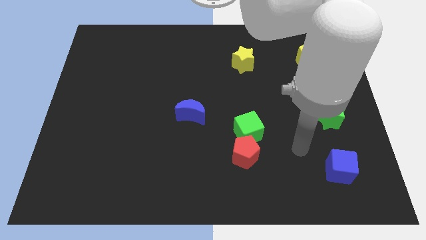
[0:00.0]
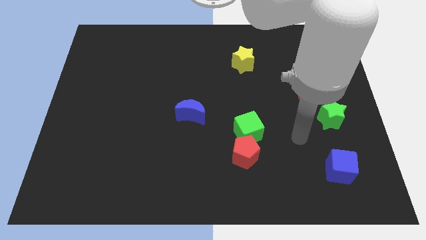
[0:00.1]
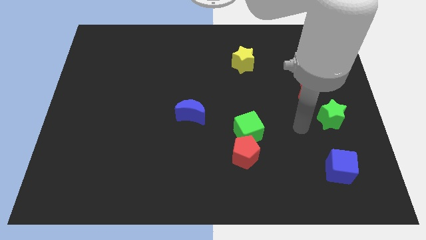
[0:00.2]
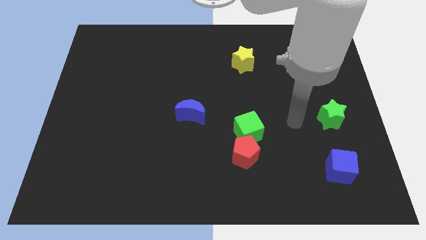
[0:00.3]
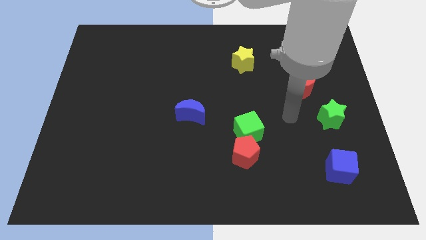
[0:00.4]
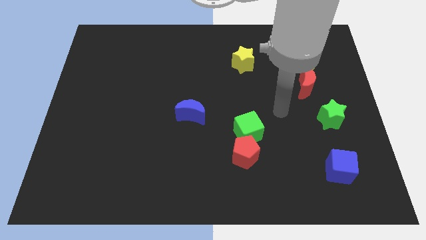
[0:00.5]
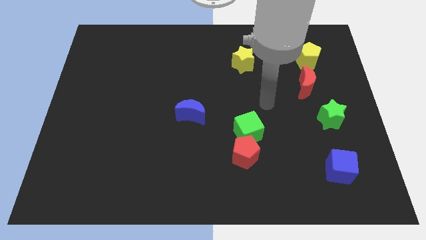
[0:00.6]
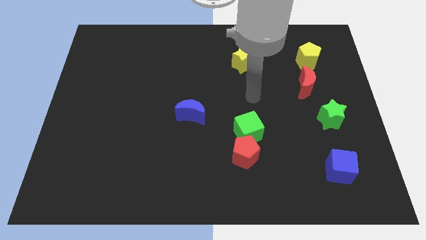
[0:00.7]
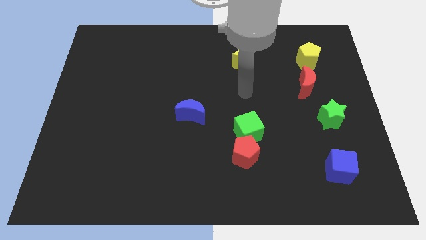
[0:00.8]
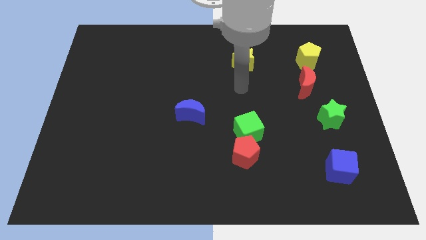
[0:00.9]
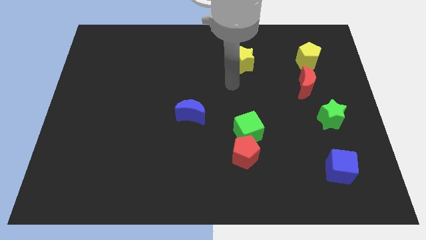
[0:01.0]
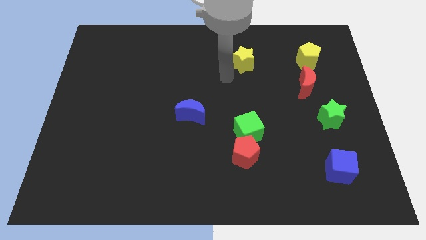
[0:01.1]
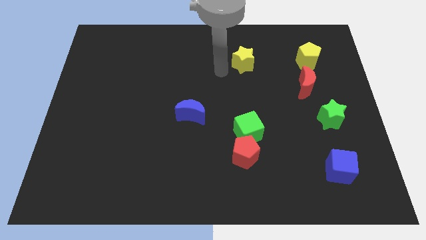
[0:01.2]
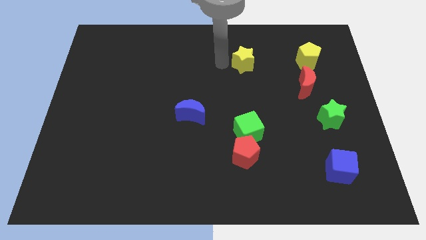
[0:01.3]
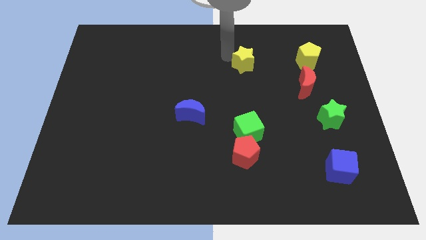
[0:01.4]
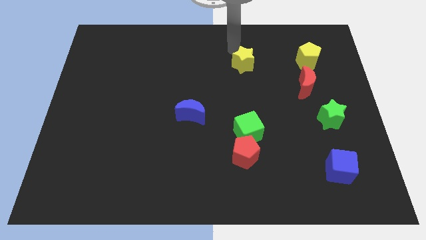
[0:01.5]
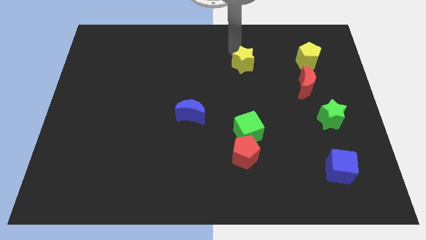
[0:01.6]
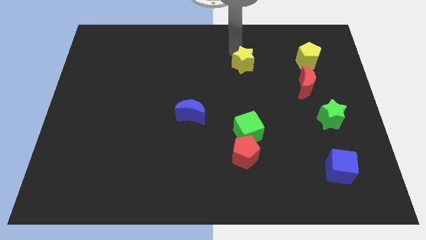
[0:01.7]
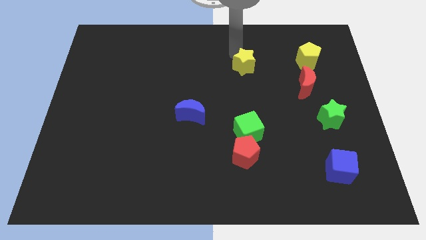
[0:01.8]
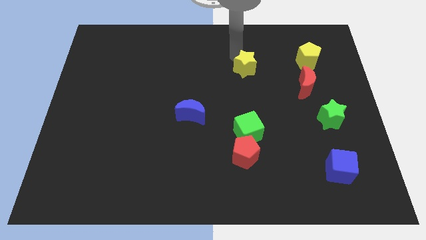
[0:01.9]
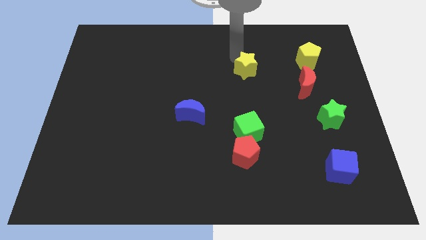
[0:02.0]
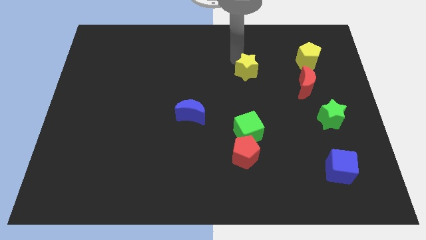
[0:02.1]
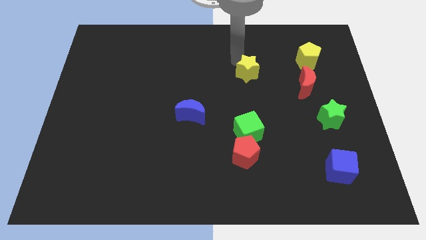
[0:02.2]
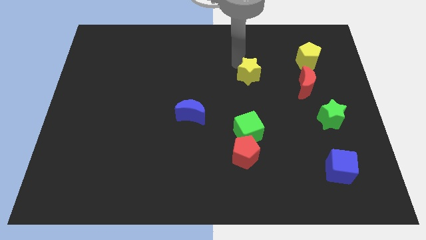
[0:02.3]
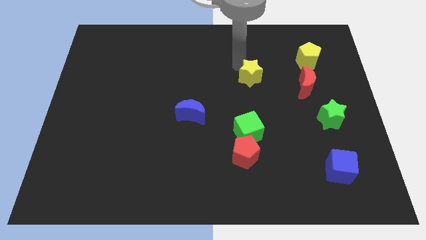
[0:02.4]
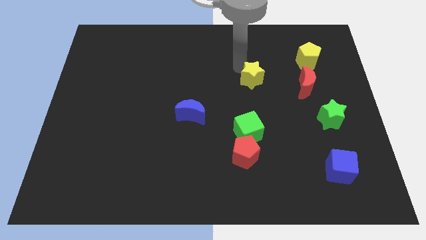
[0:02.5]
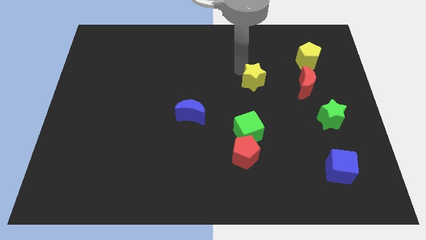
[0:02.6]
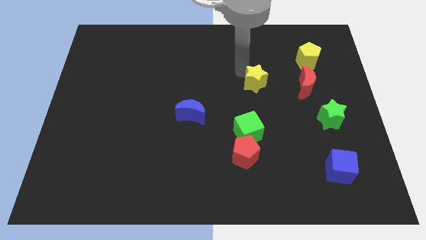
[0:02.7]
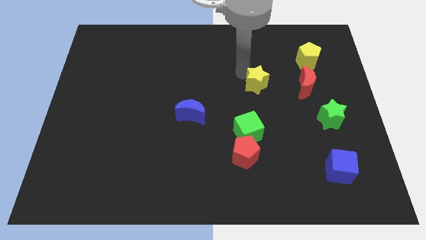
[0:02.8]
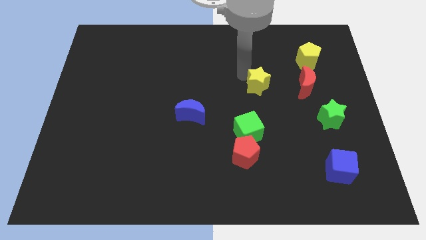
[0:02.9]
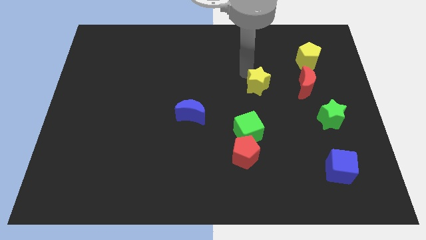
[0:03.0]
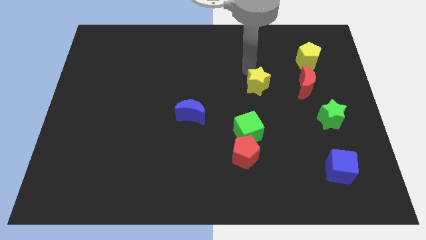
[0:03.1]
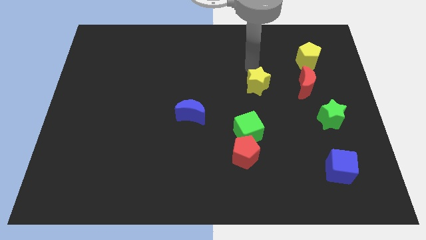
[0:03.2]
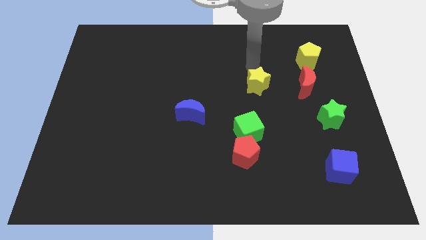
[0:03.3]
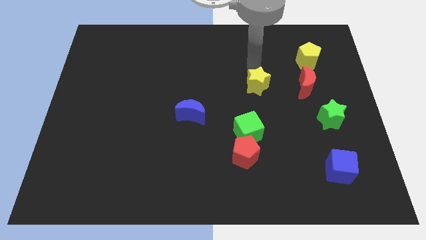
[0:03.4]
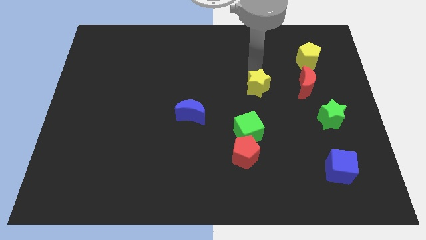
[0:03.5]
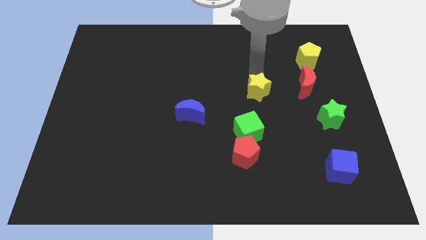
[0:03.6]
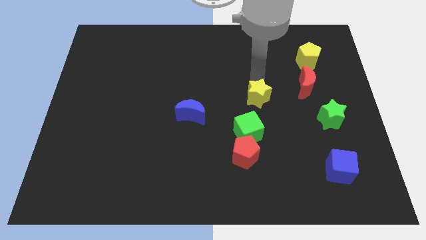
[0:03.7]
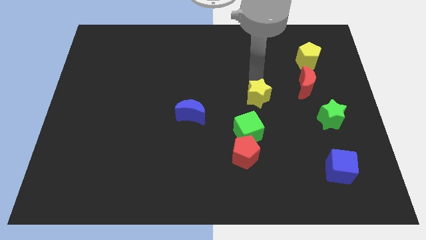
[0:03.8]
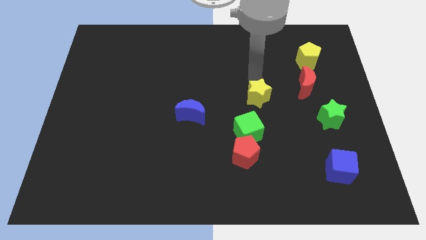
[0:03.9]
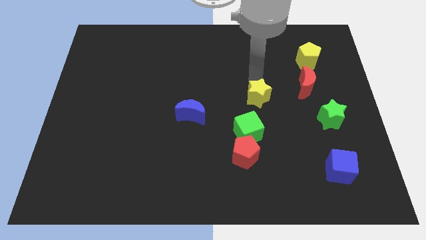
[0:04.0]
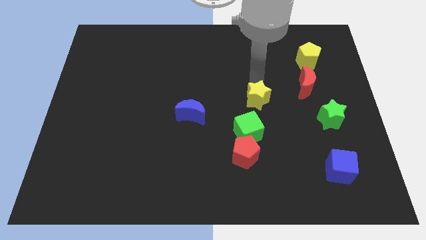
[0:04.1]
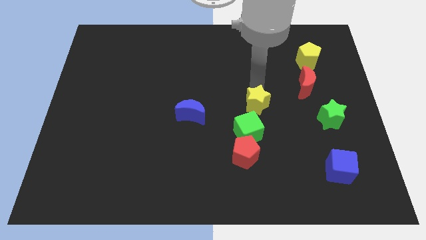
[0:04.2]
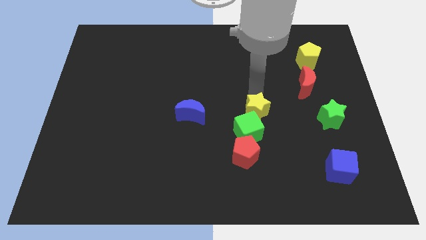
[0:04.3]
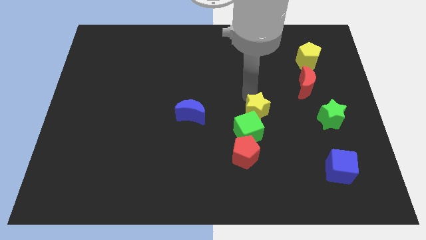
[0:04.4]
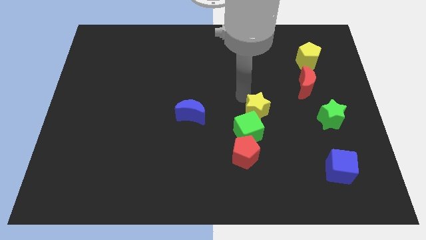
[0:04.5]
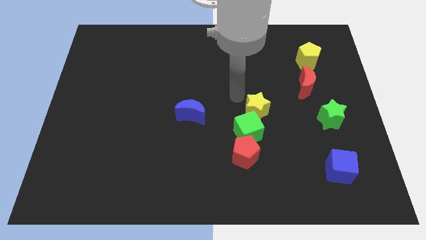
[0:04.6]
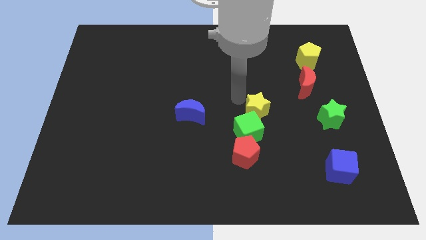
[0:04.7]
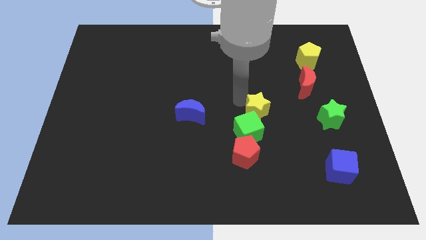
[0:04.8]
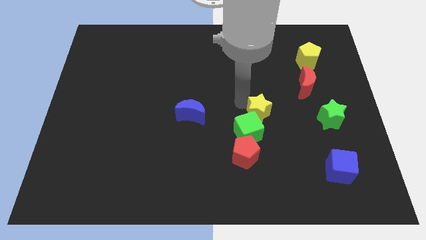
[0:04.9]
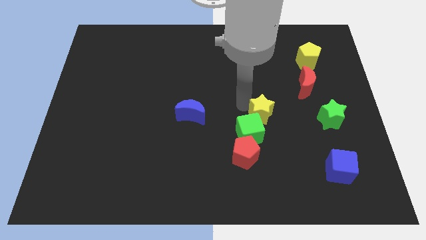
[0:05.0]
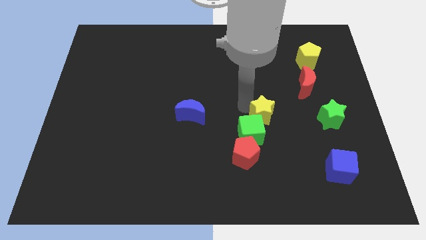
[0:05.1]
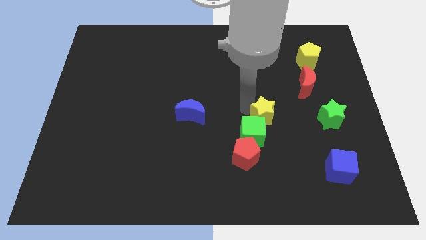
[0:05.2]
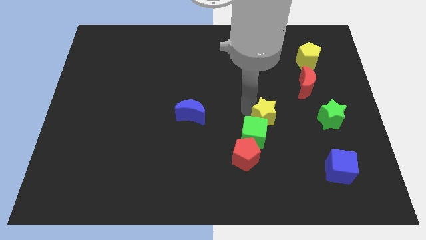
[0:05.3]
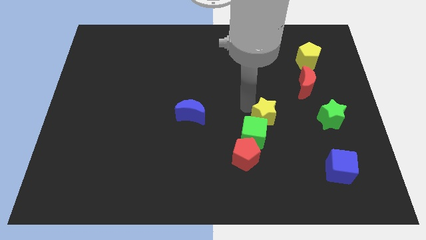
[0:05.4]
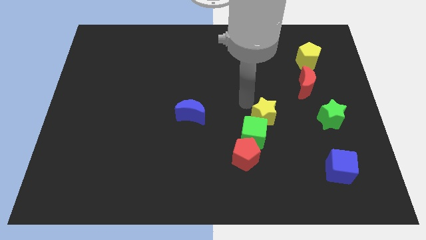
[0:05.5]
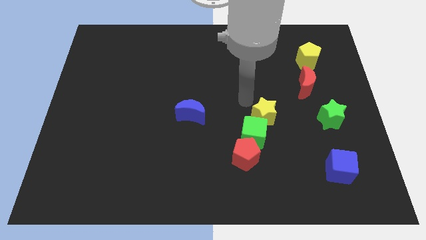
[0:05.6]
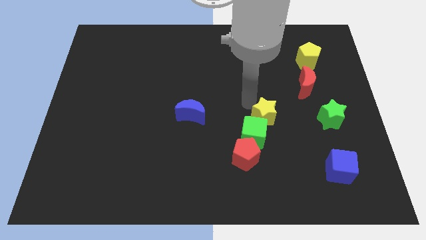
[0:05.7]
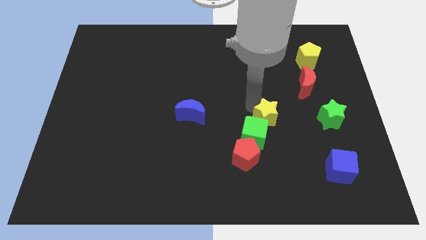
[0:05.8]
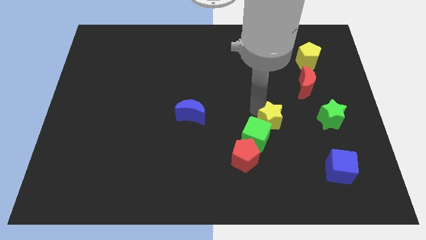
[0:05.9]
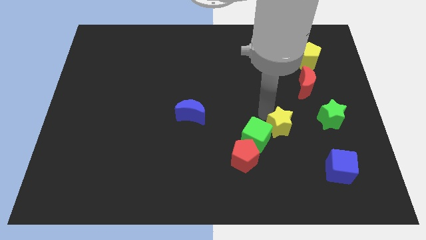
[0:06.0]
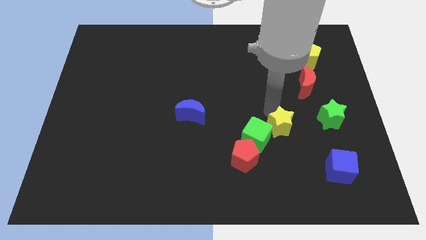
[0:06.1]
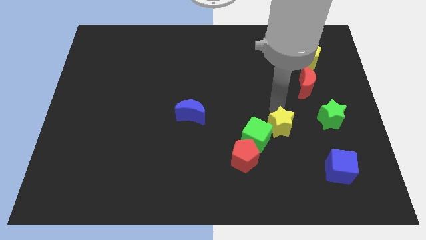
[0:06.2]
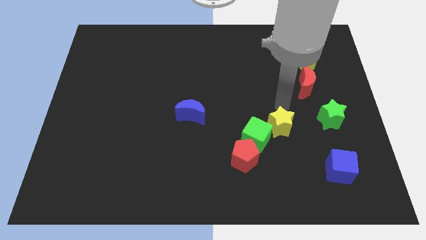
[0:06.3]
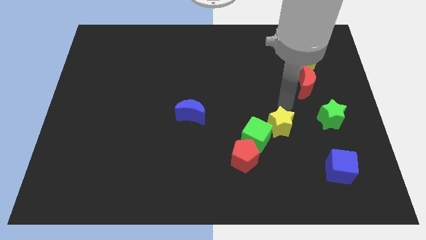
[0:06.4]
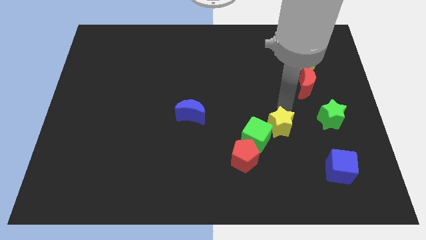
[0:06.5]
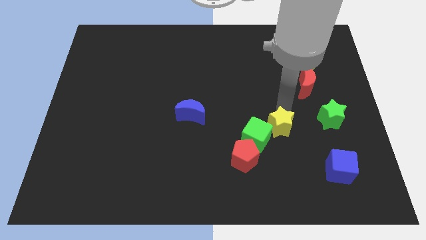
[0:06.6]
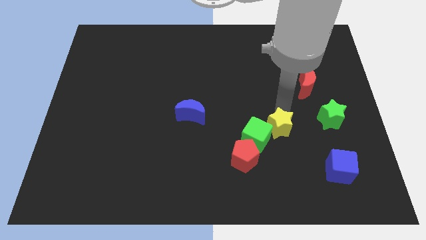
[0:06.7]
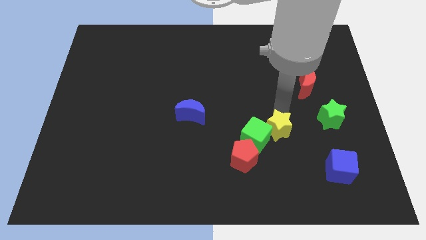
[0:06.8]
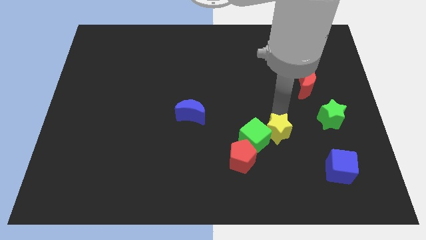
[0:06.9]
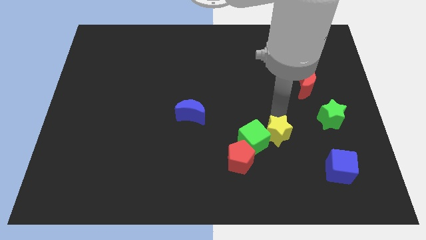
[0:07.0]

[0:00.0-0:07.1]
slide the yellow star downwards

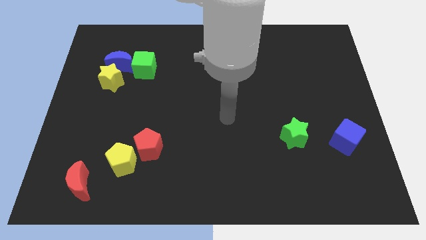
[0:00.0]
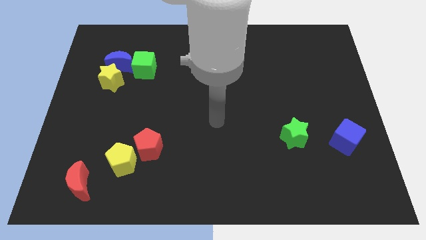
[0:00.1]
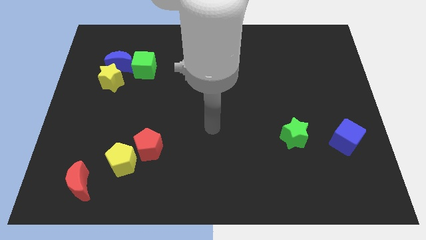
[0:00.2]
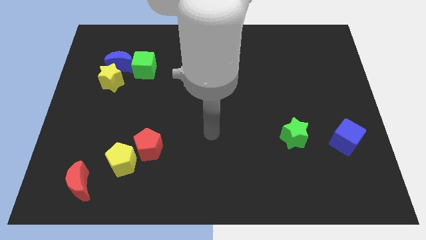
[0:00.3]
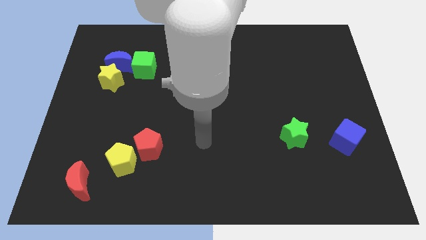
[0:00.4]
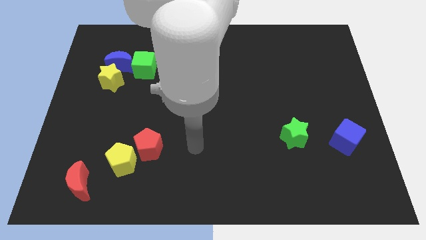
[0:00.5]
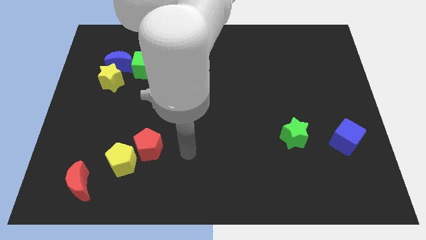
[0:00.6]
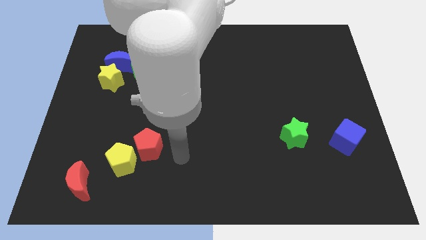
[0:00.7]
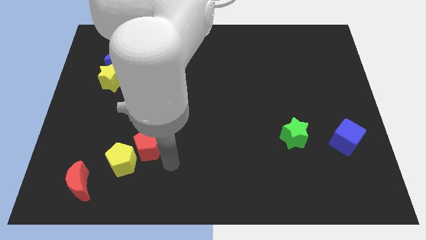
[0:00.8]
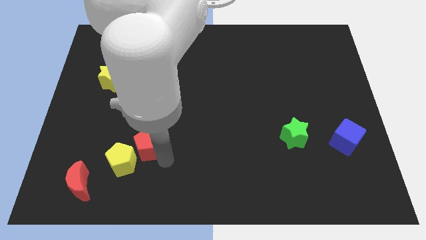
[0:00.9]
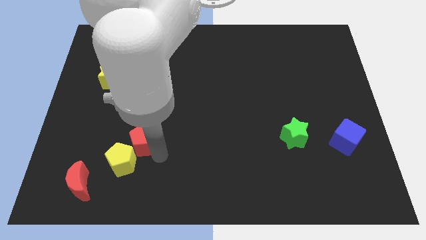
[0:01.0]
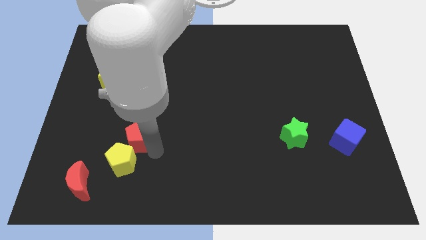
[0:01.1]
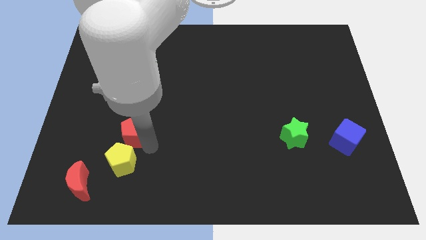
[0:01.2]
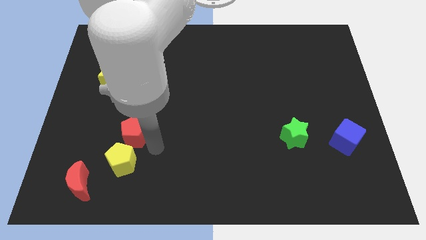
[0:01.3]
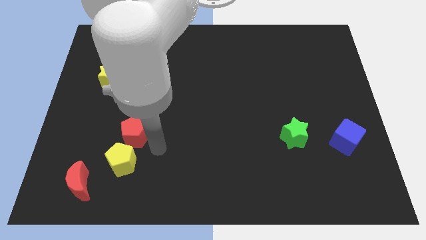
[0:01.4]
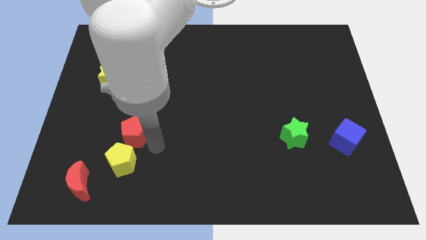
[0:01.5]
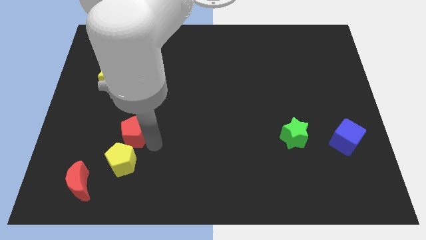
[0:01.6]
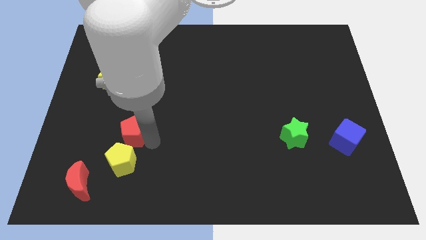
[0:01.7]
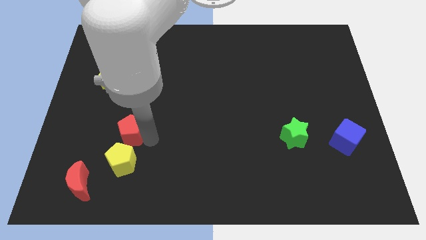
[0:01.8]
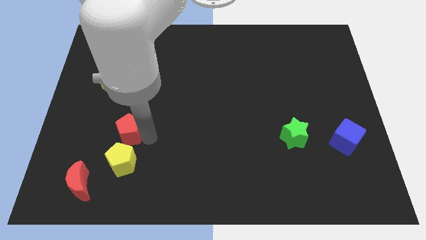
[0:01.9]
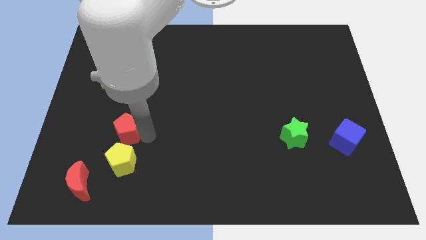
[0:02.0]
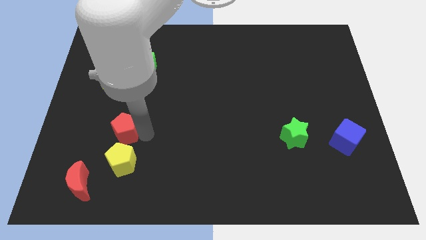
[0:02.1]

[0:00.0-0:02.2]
slide the red pentagon diagonally upwards and left a bit
